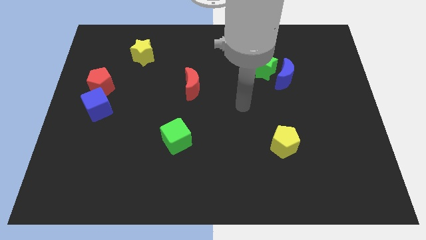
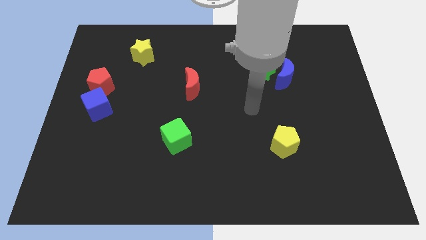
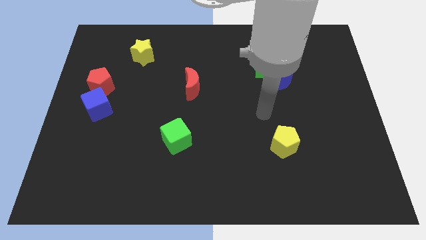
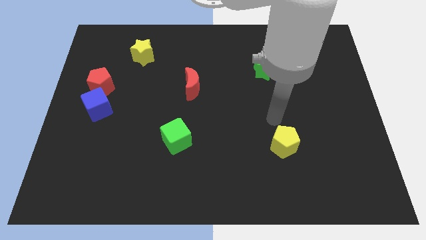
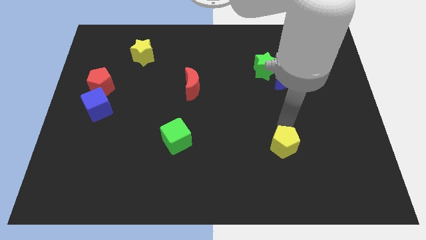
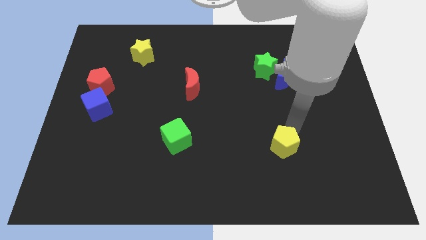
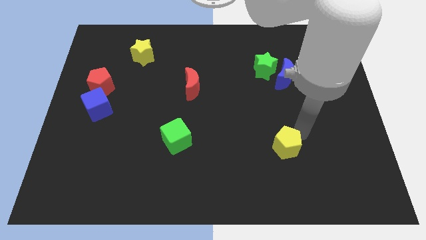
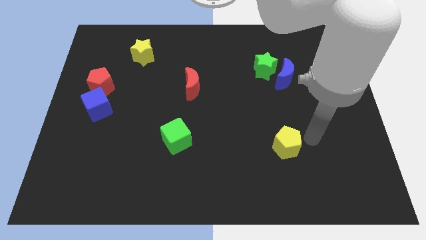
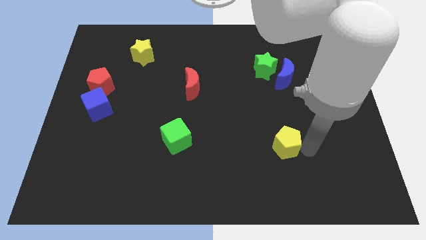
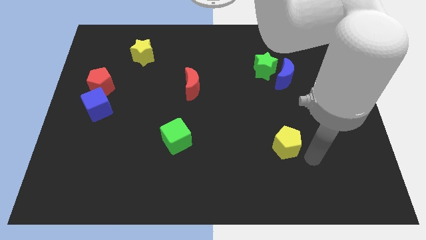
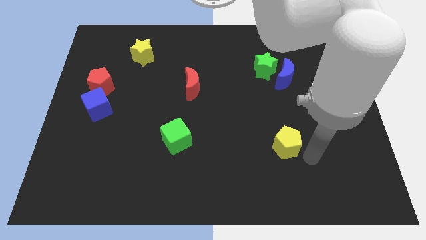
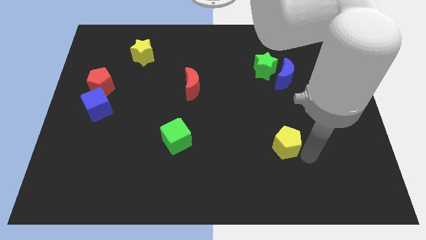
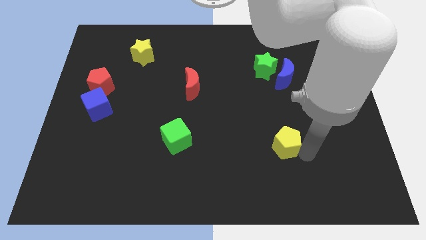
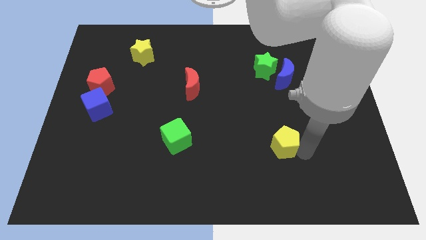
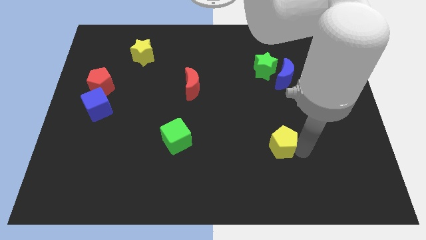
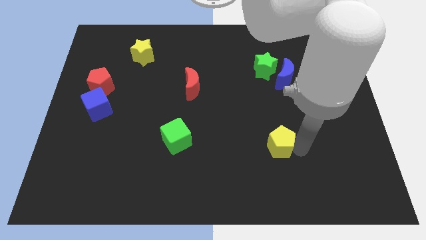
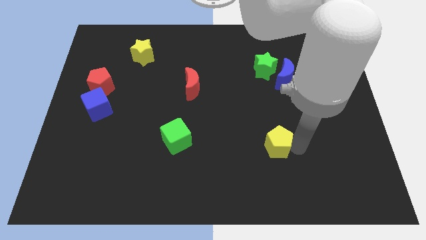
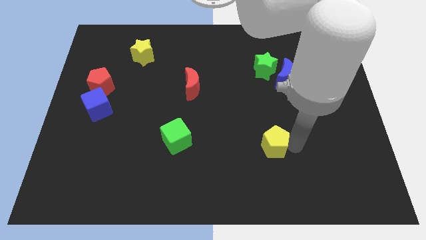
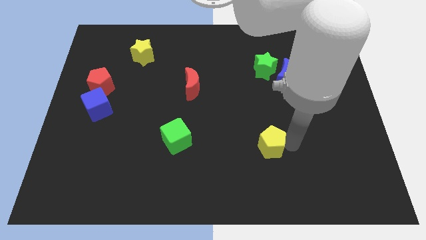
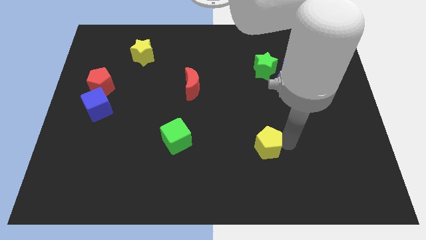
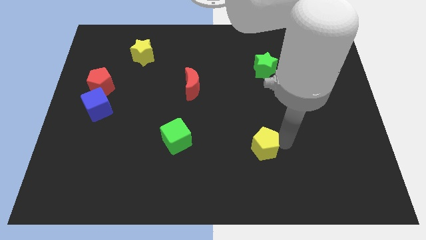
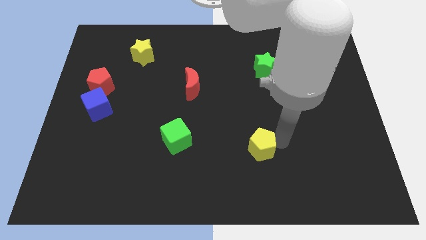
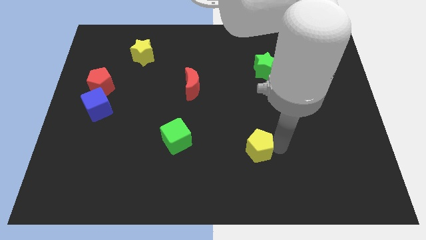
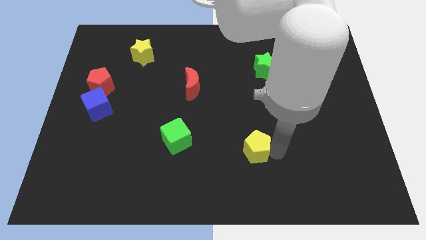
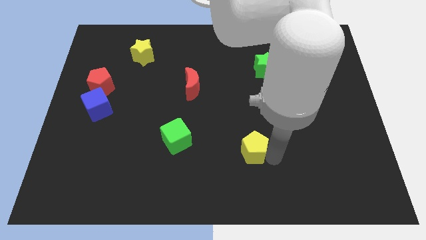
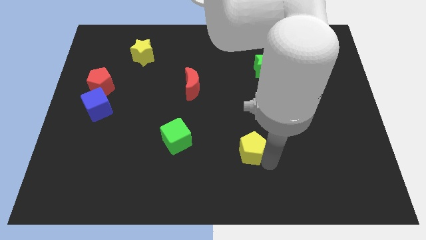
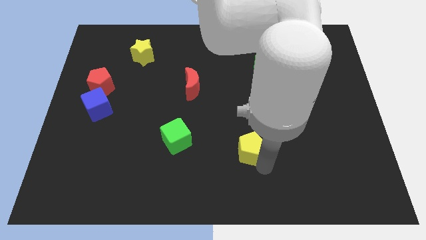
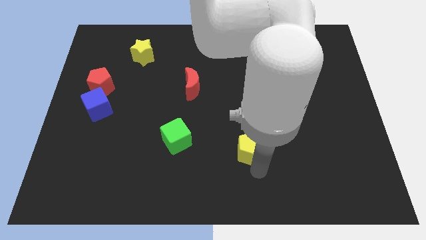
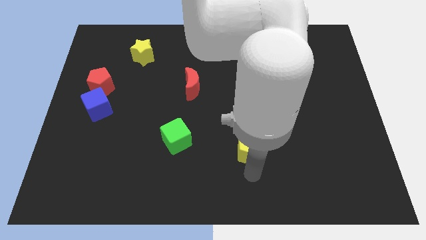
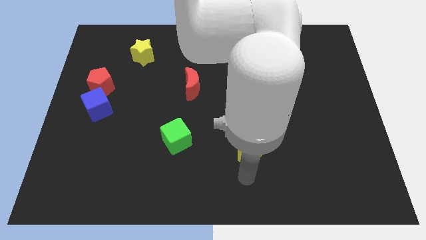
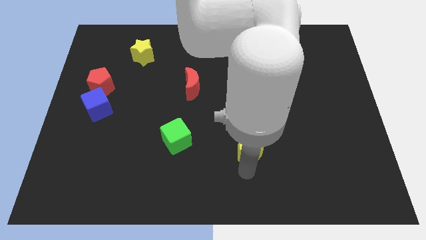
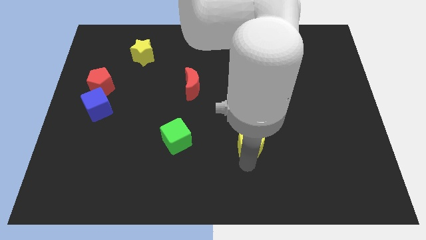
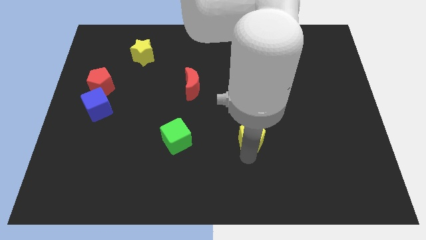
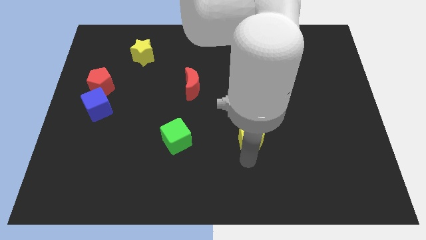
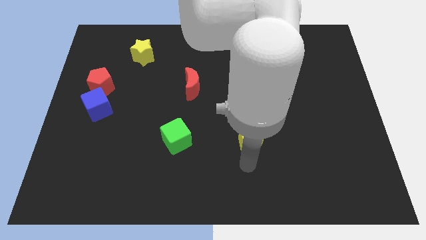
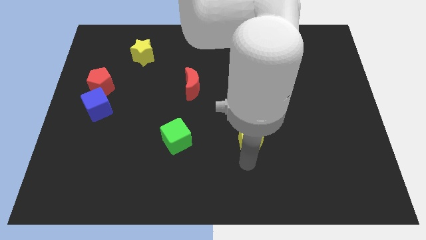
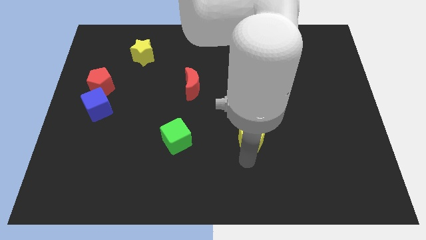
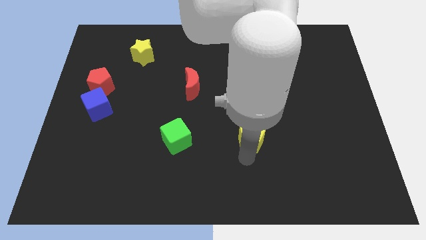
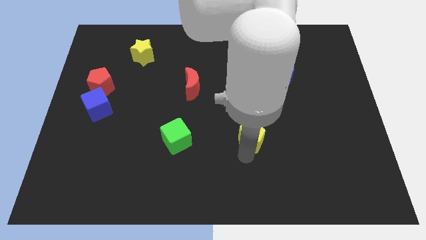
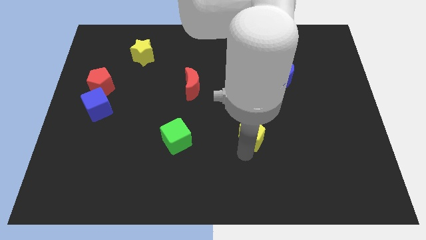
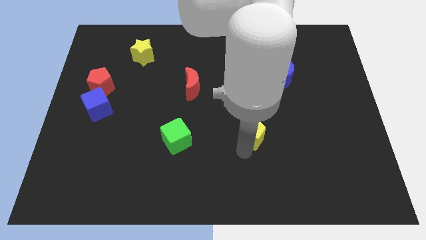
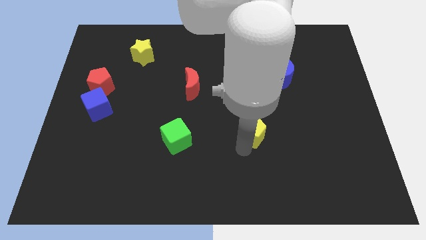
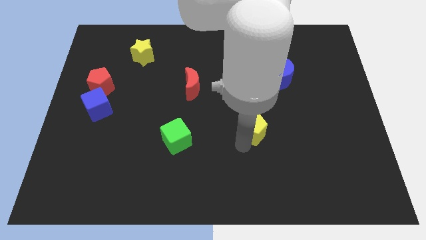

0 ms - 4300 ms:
slightly slide the yellow pentagon diagonally upwards and left

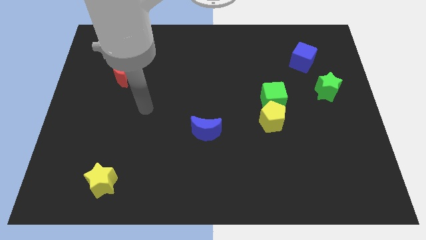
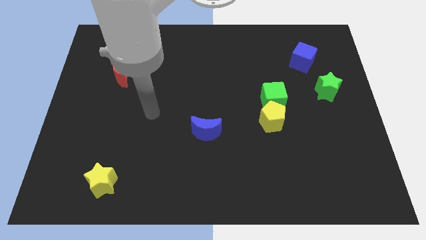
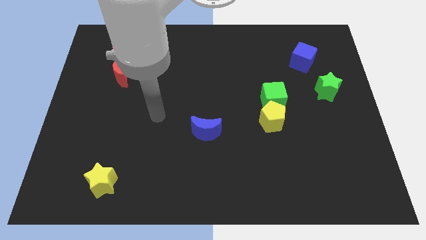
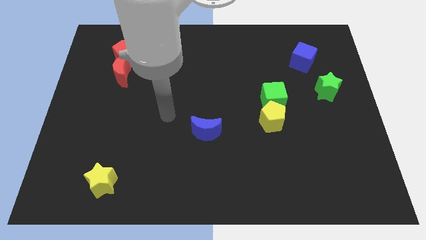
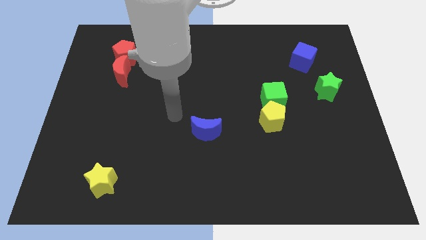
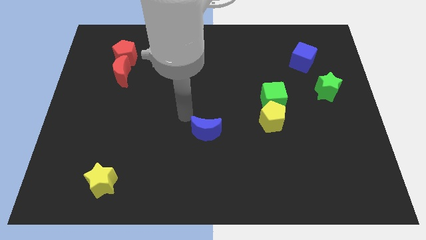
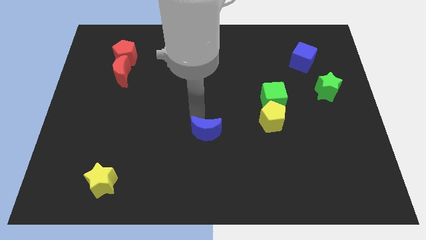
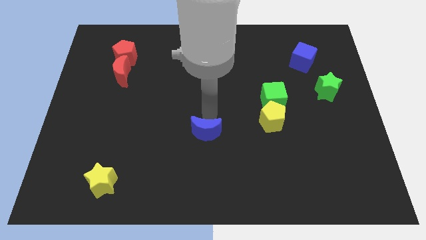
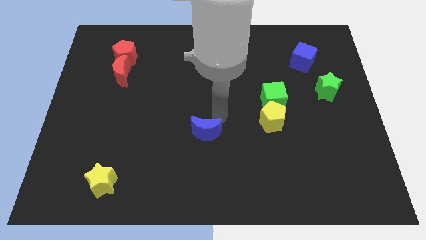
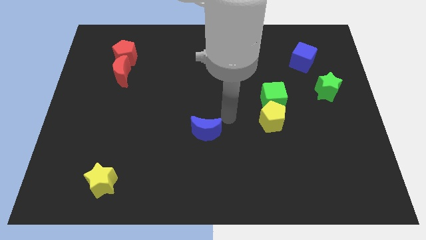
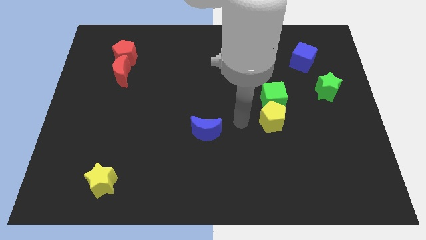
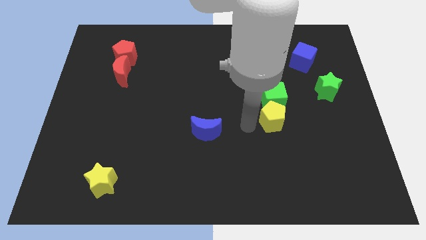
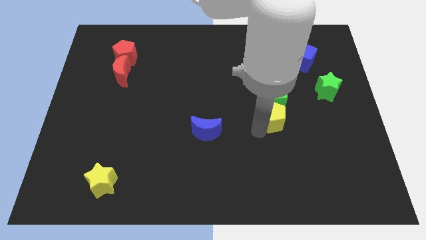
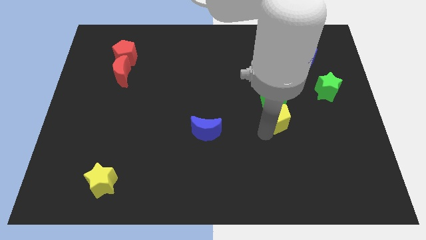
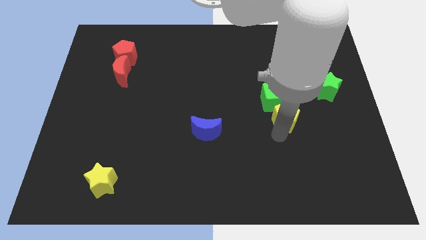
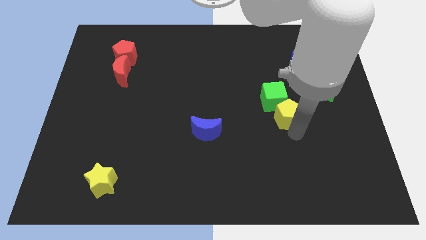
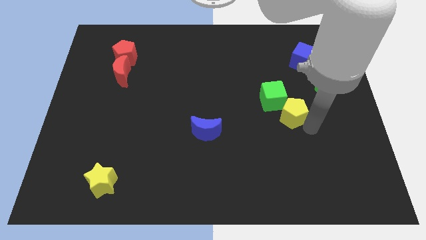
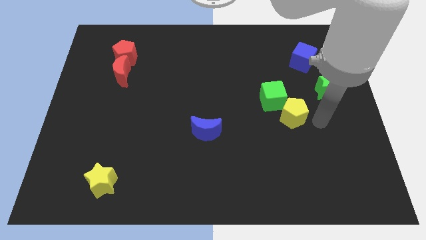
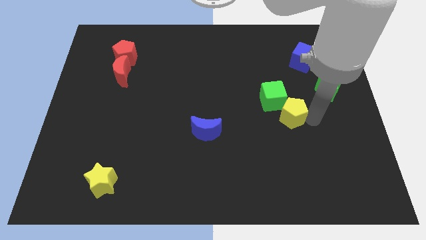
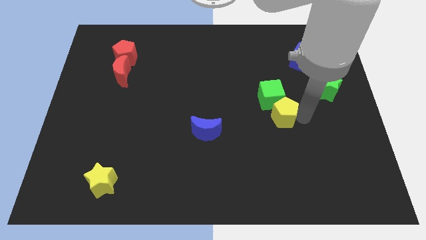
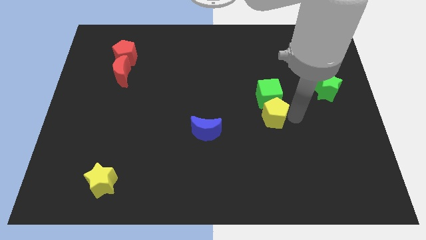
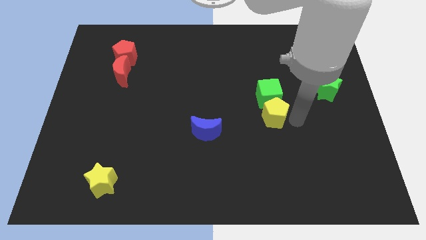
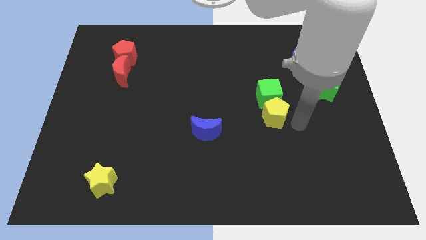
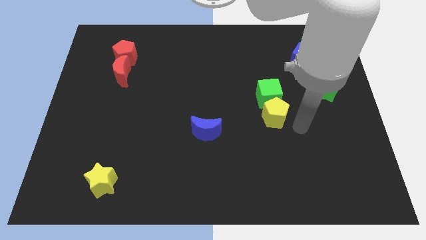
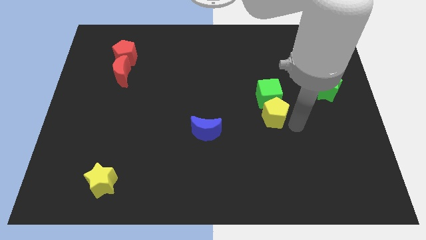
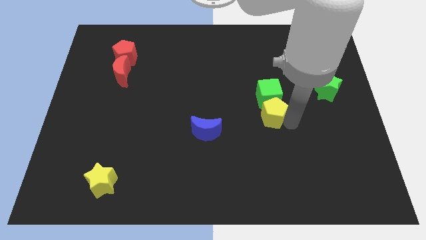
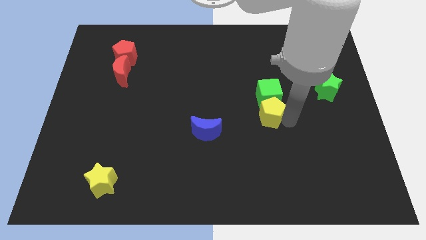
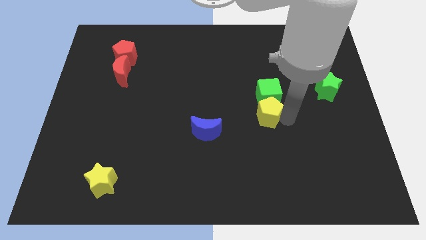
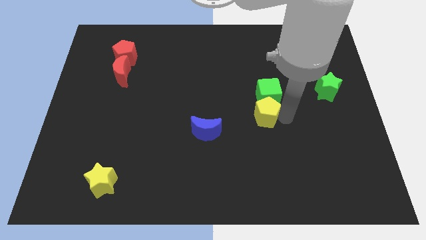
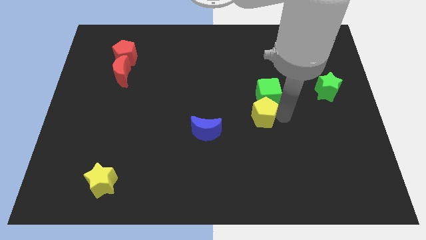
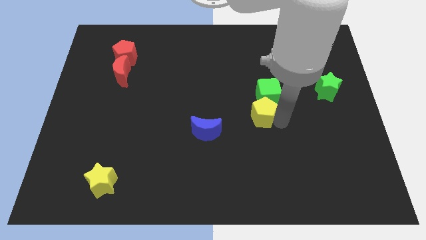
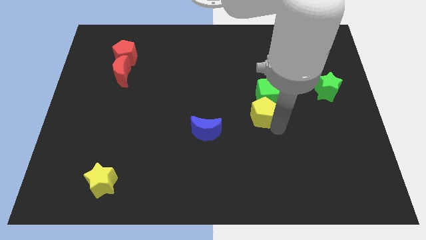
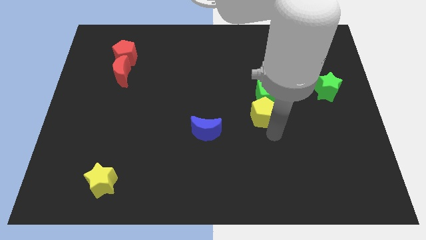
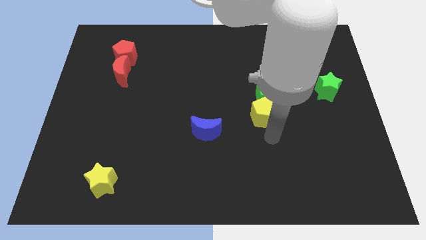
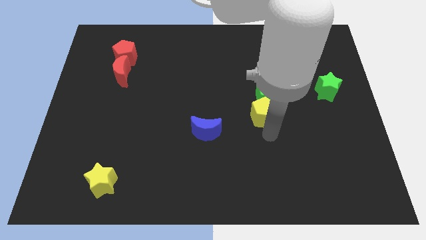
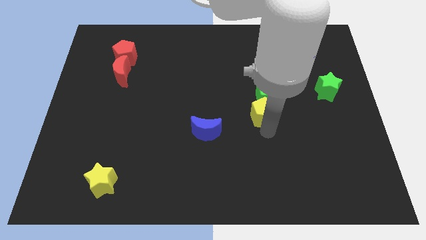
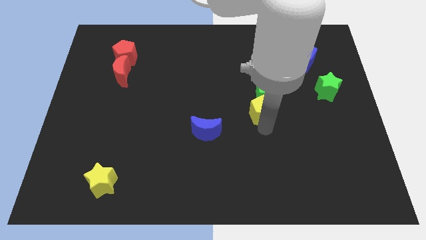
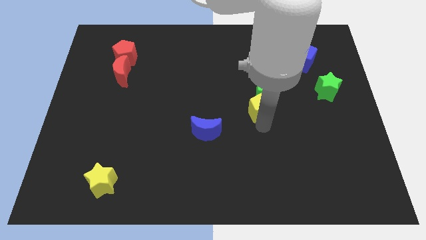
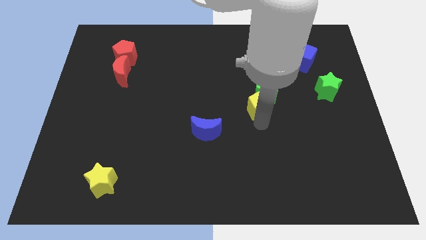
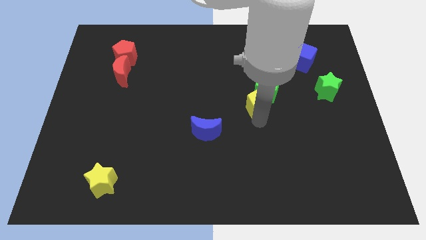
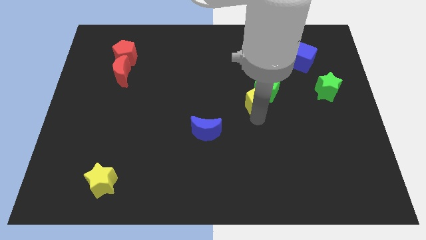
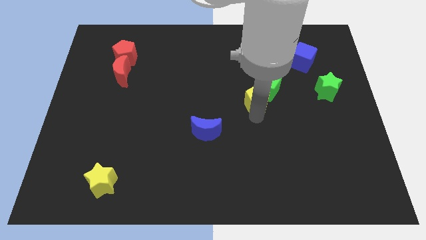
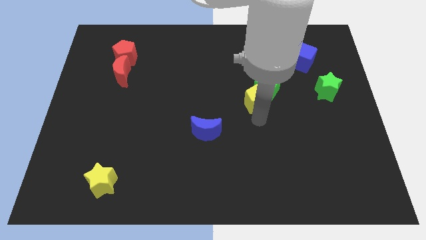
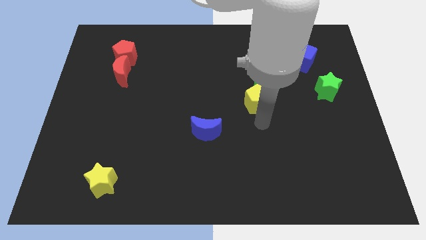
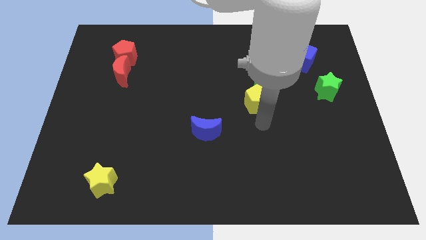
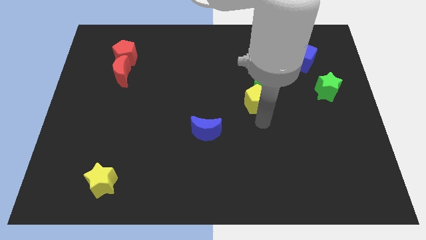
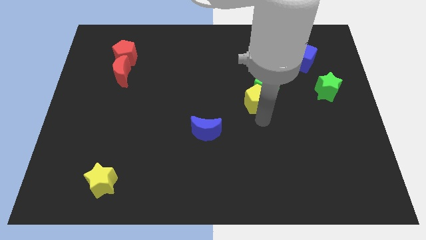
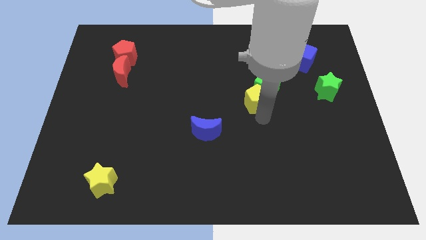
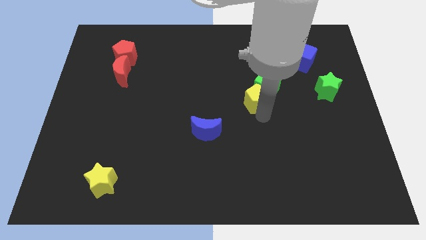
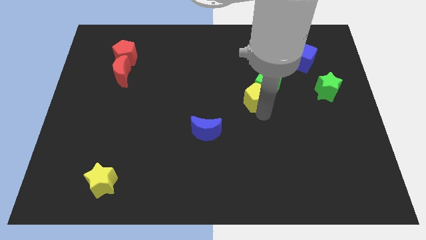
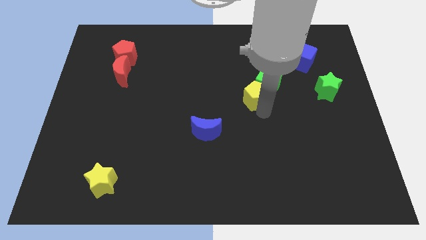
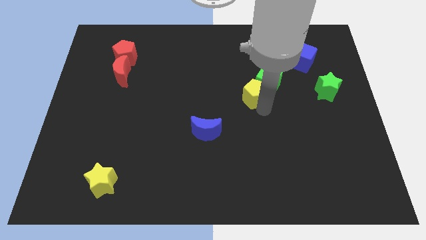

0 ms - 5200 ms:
slide the yellow pentagon somewhat up
